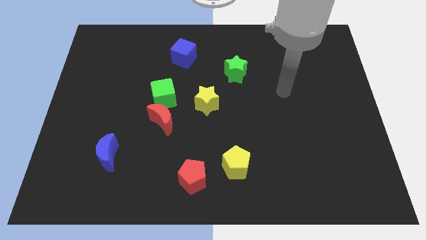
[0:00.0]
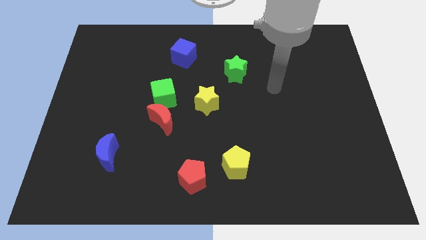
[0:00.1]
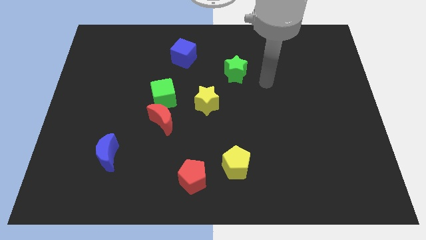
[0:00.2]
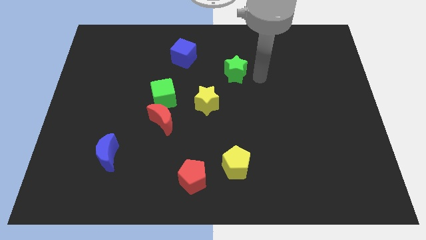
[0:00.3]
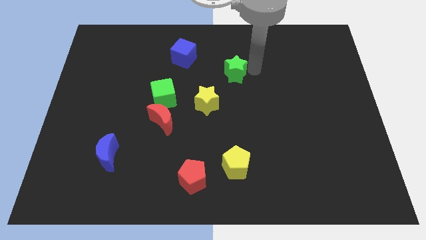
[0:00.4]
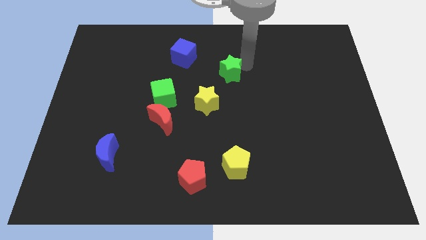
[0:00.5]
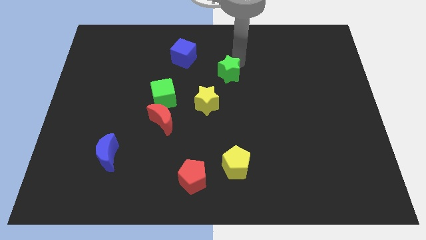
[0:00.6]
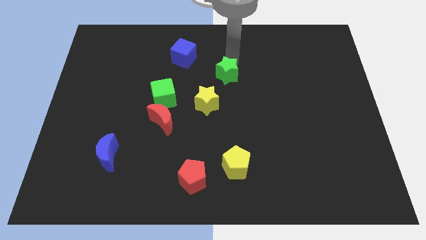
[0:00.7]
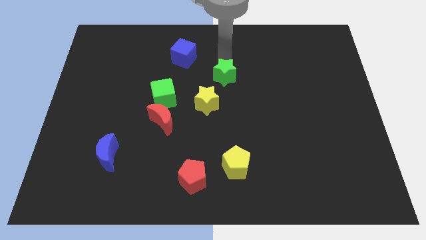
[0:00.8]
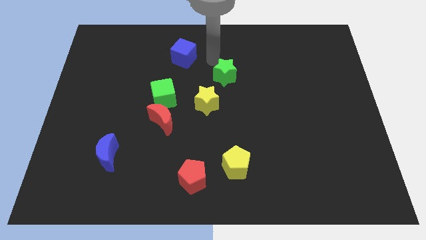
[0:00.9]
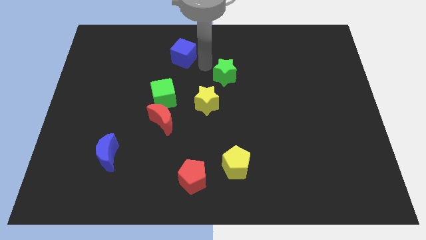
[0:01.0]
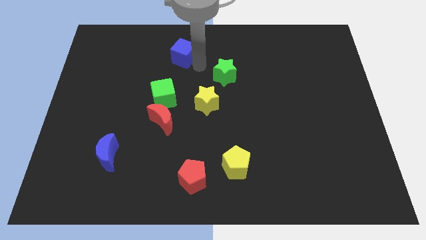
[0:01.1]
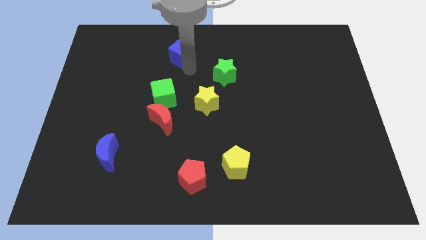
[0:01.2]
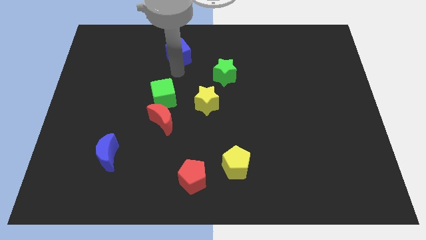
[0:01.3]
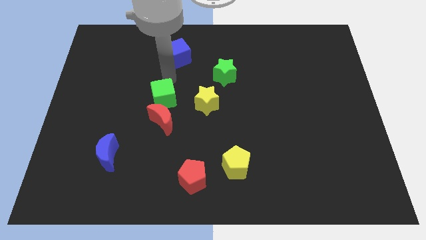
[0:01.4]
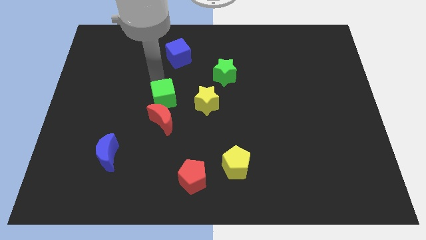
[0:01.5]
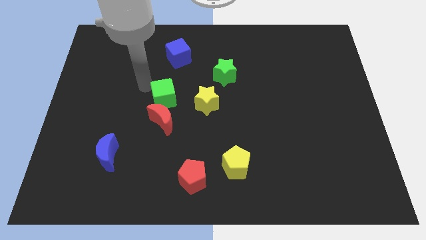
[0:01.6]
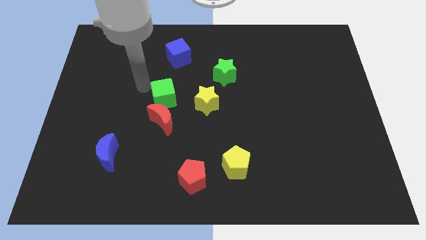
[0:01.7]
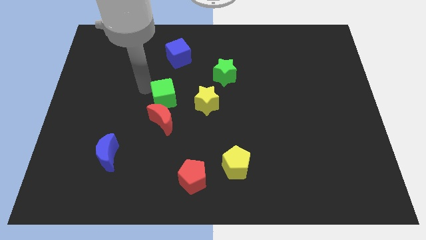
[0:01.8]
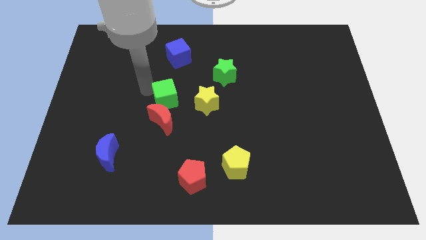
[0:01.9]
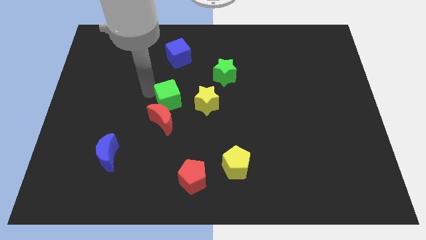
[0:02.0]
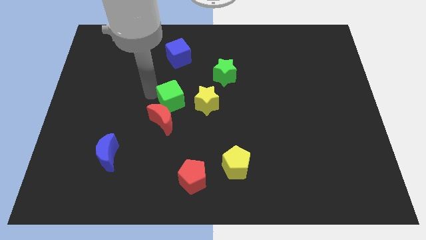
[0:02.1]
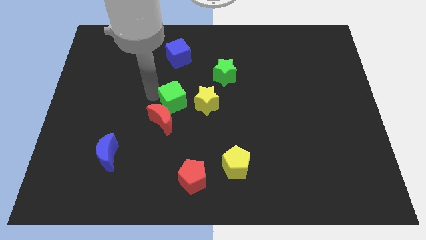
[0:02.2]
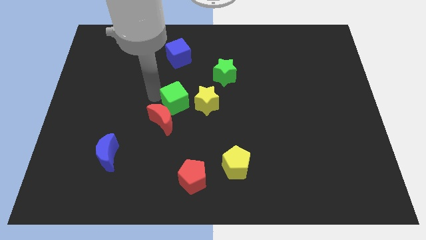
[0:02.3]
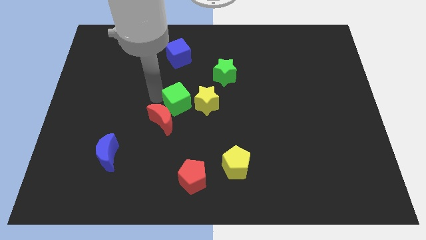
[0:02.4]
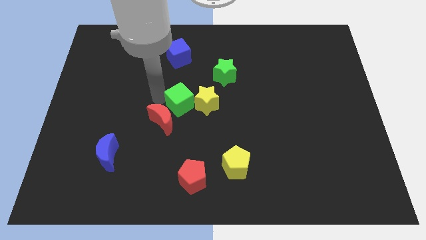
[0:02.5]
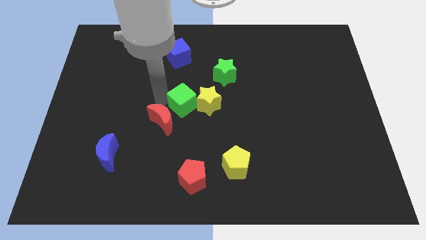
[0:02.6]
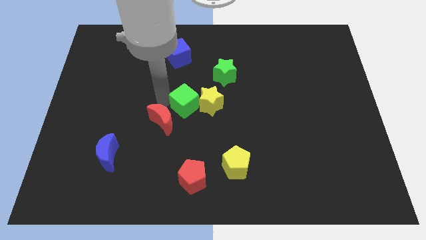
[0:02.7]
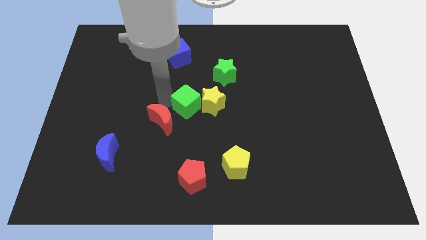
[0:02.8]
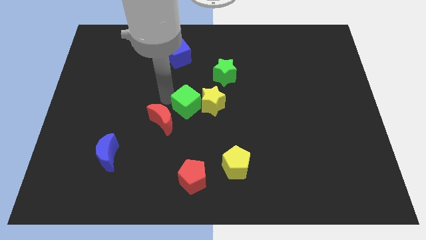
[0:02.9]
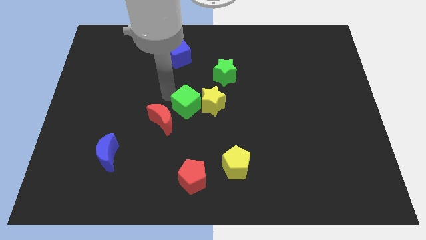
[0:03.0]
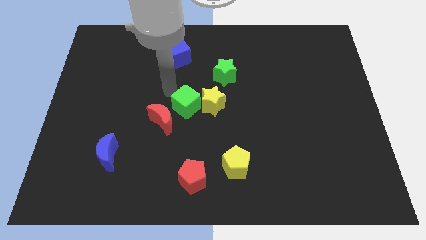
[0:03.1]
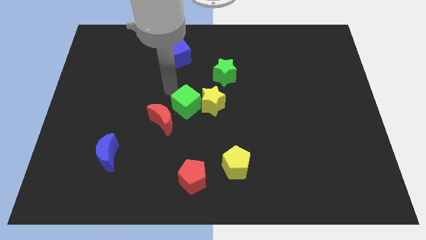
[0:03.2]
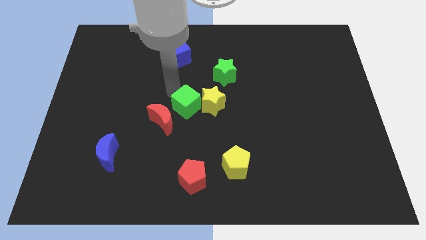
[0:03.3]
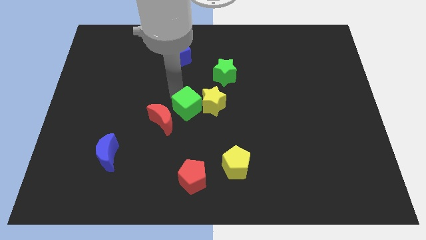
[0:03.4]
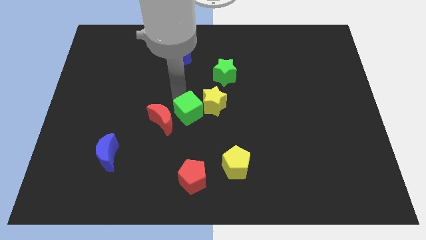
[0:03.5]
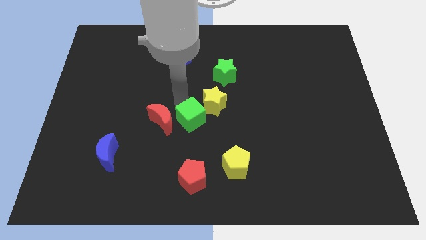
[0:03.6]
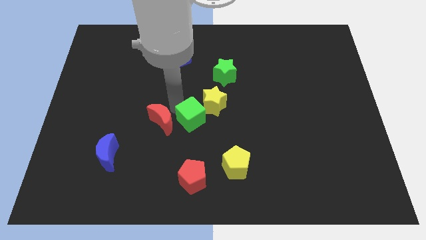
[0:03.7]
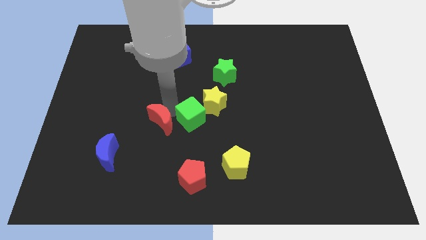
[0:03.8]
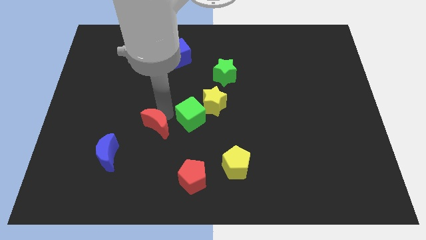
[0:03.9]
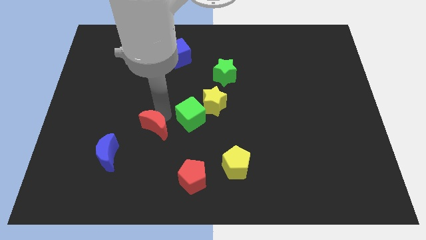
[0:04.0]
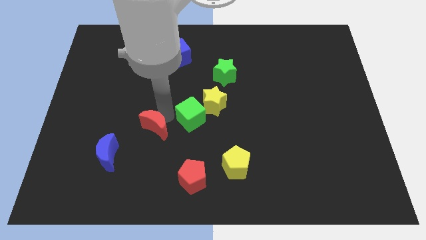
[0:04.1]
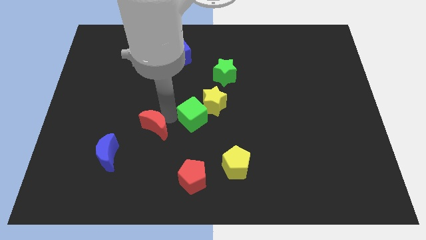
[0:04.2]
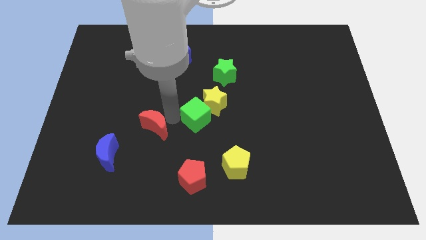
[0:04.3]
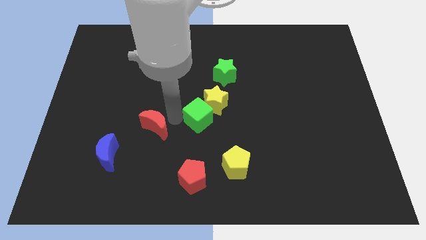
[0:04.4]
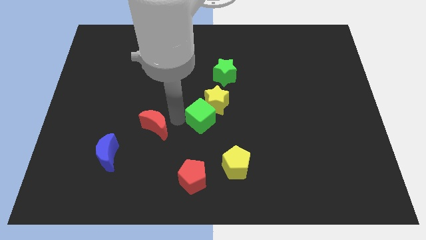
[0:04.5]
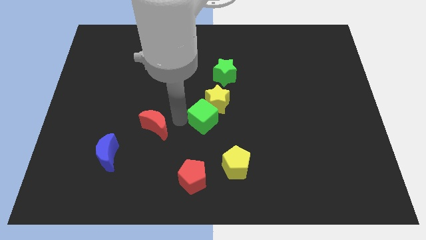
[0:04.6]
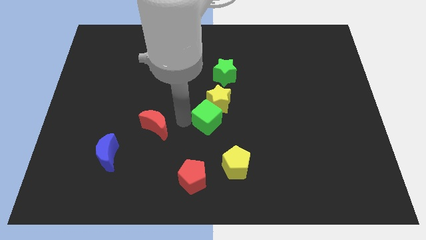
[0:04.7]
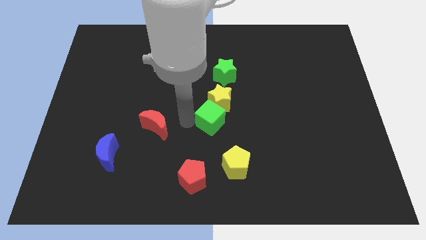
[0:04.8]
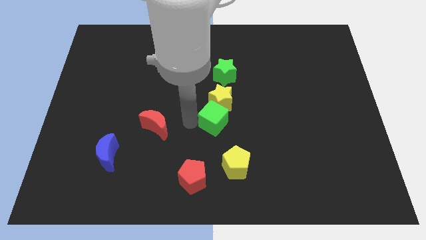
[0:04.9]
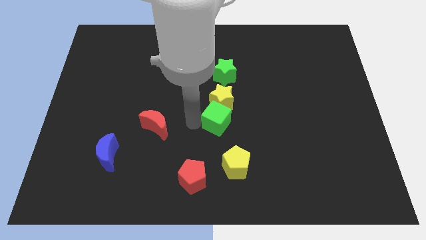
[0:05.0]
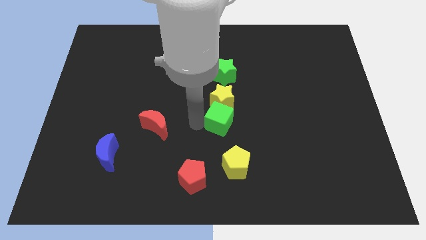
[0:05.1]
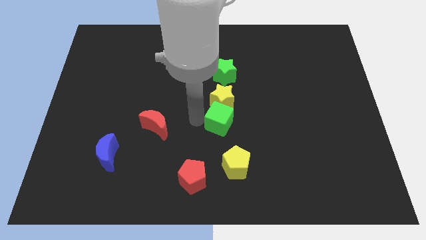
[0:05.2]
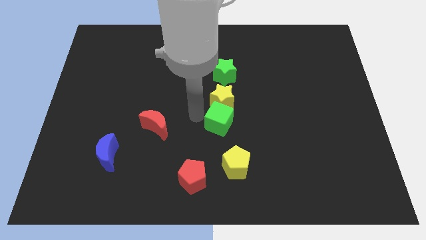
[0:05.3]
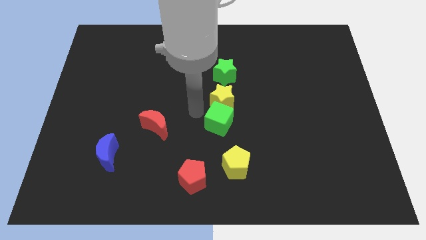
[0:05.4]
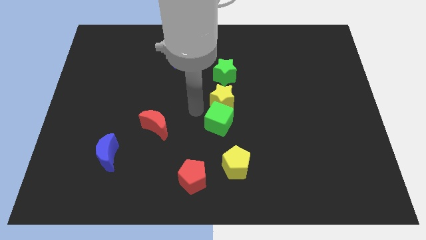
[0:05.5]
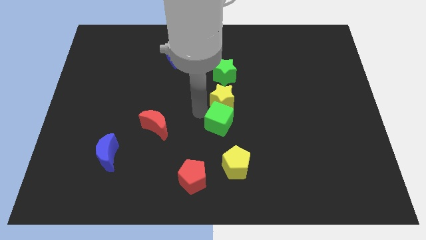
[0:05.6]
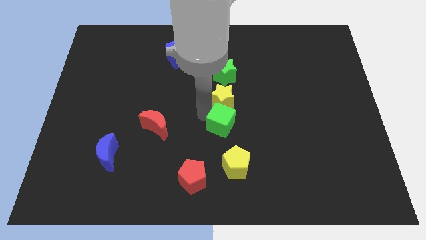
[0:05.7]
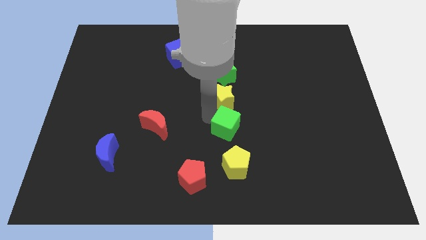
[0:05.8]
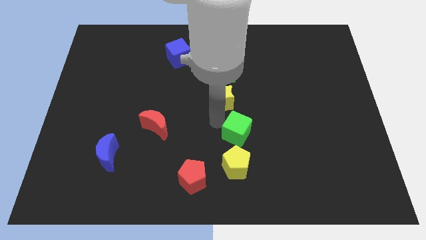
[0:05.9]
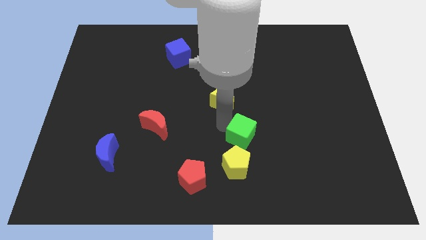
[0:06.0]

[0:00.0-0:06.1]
slide the green cube to the top right of the yellow pentagon
